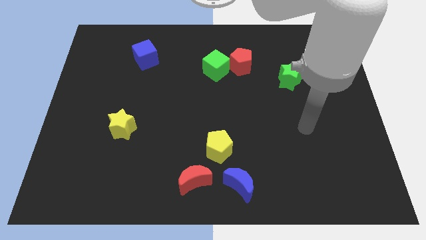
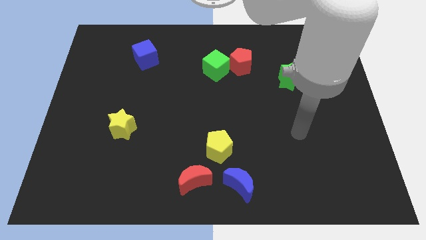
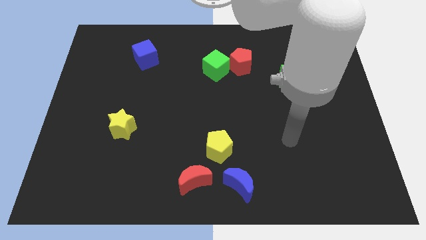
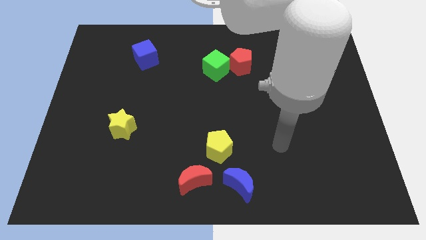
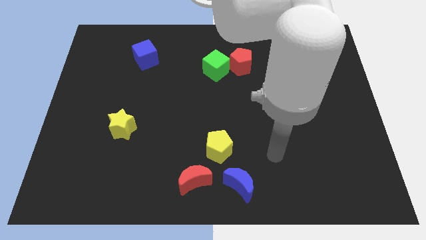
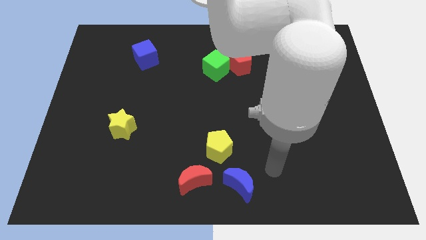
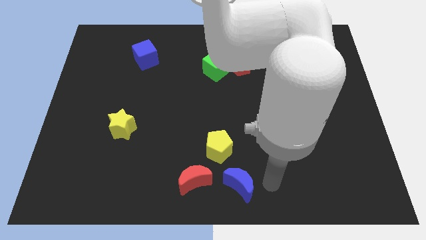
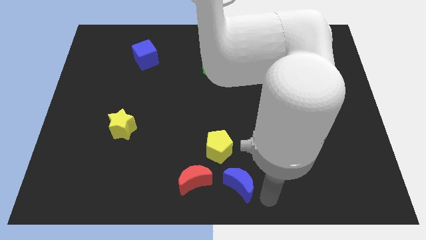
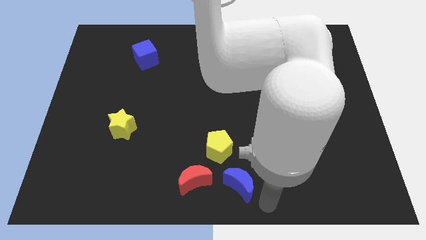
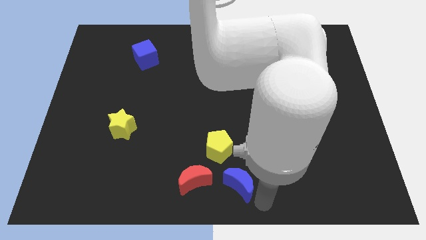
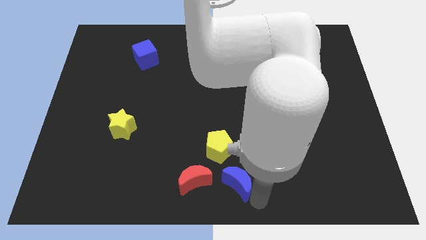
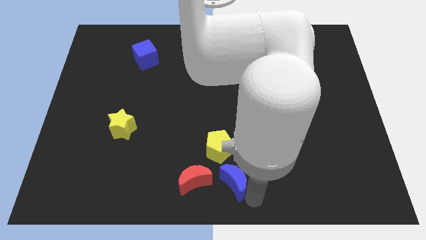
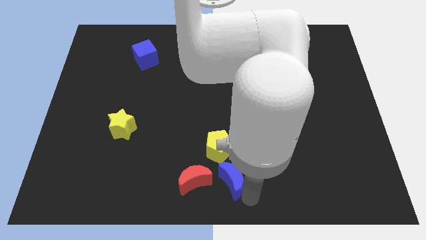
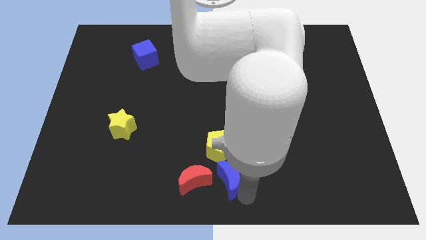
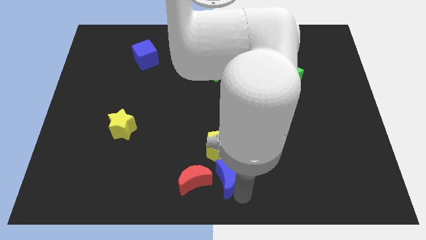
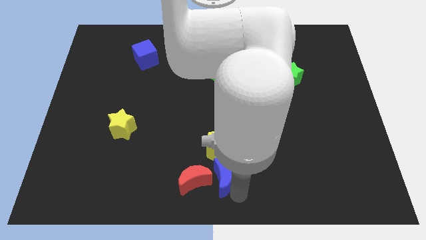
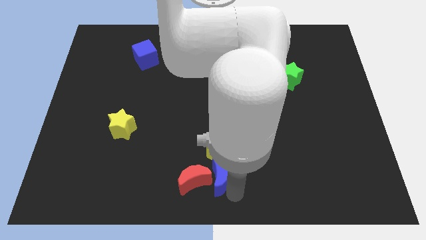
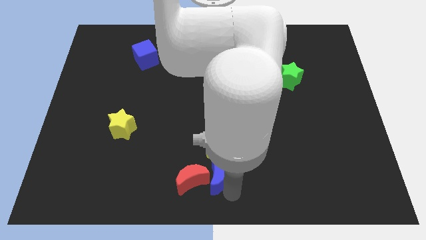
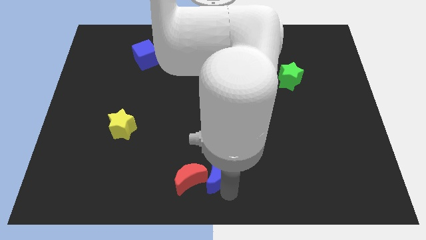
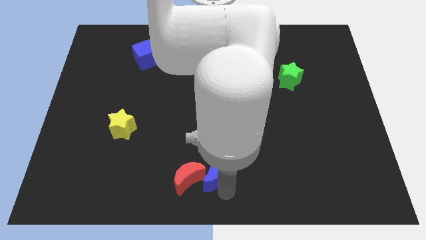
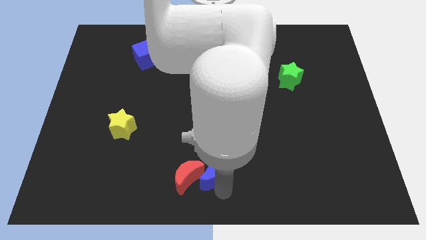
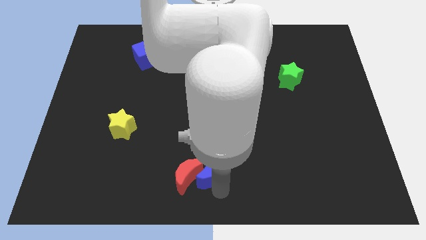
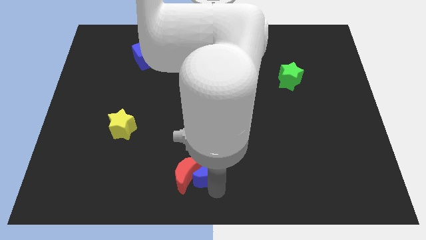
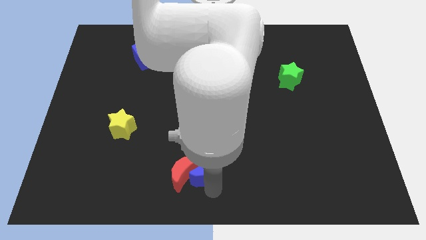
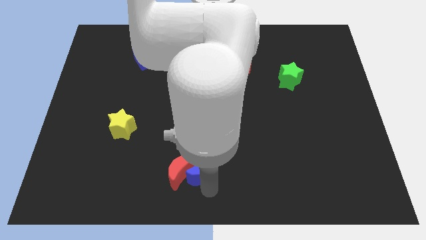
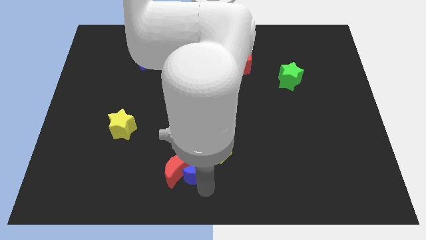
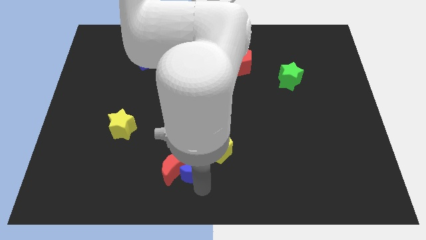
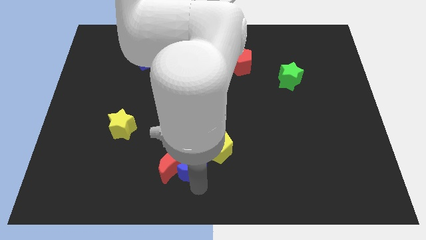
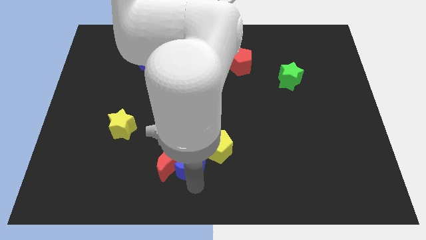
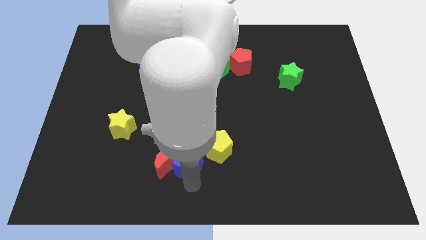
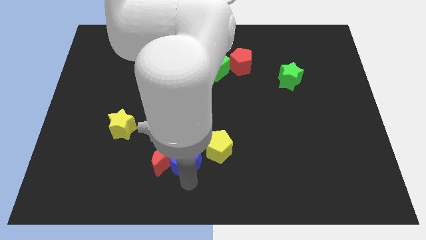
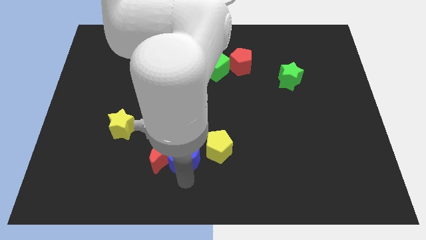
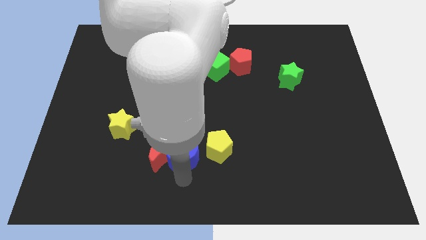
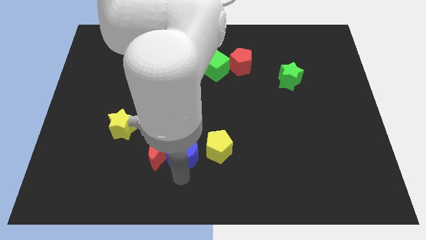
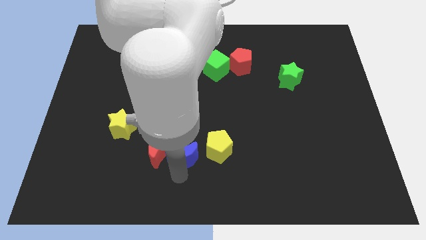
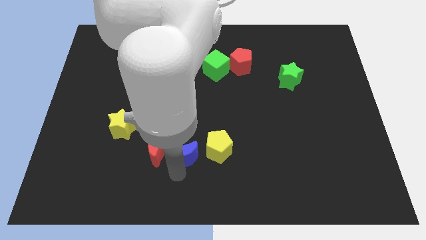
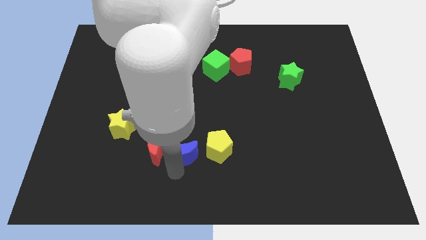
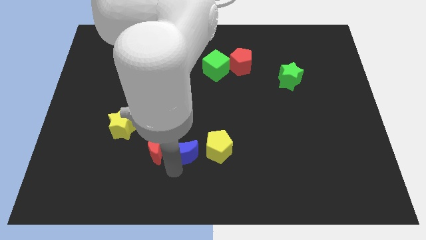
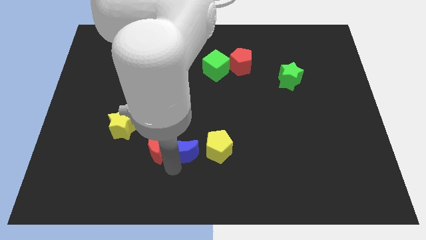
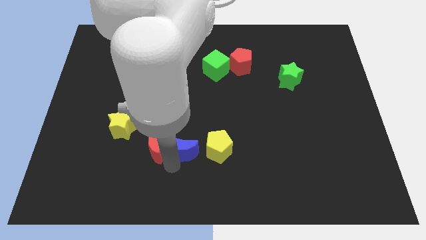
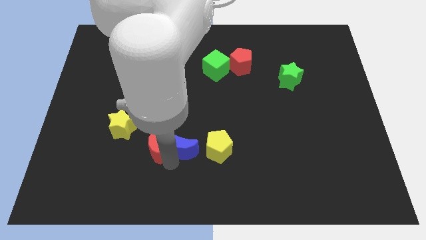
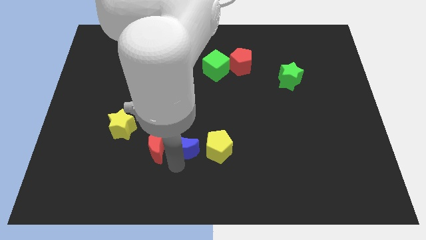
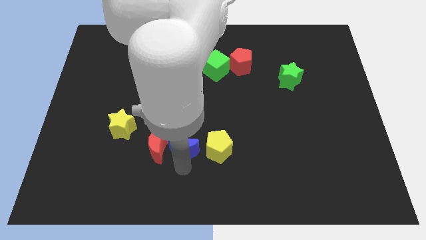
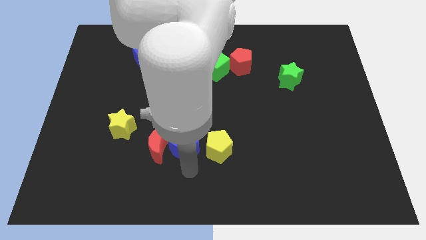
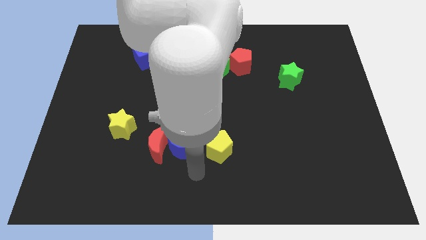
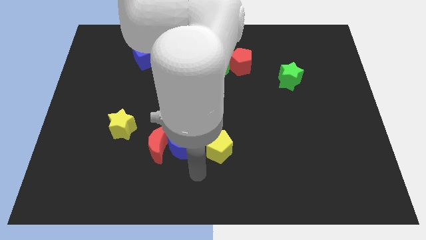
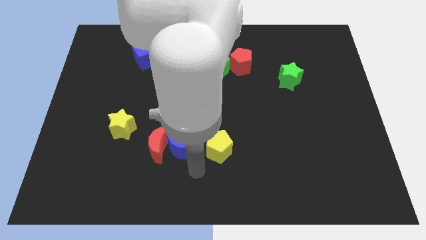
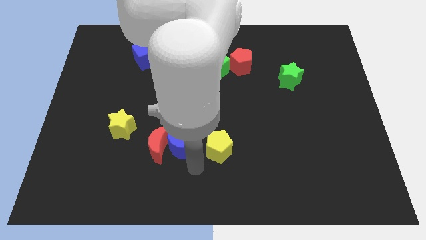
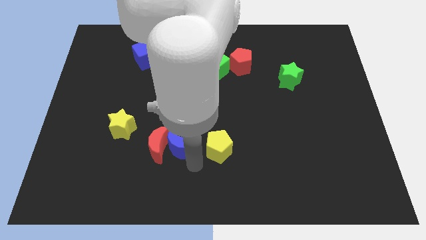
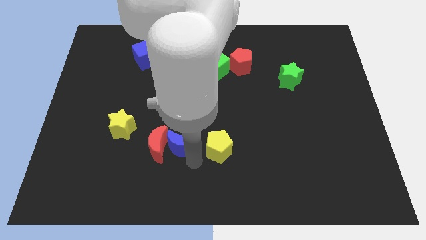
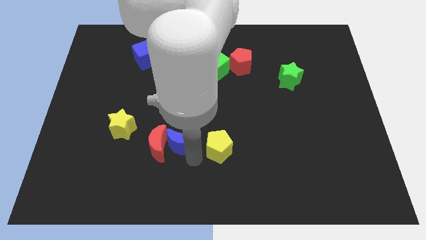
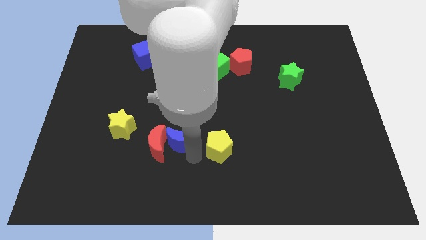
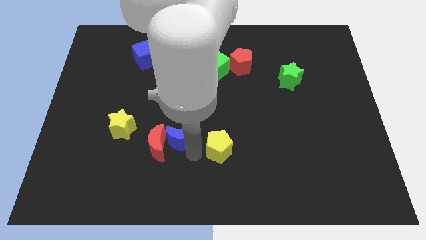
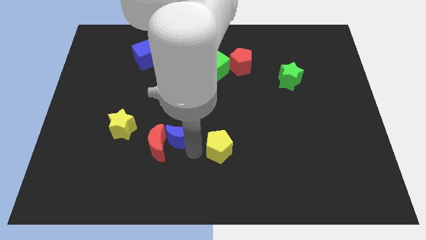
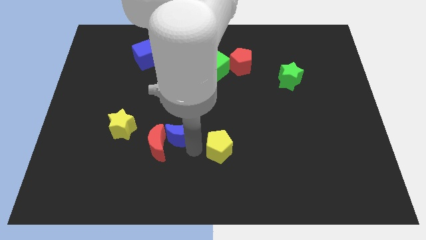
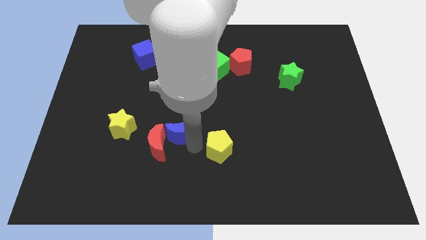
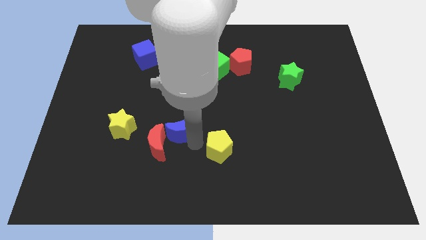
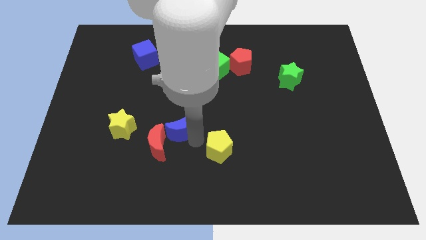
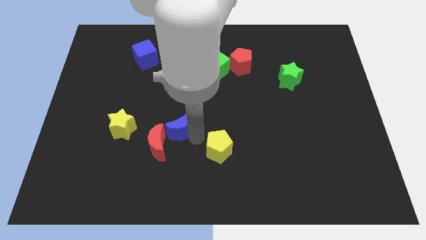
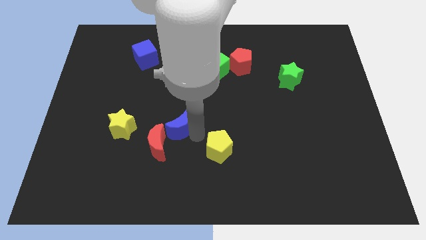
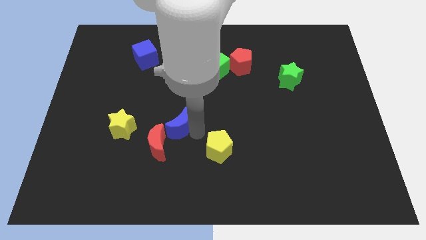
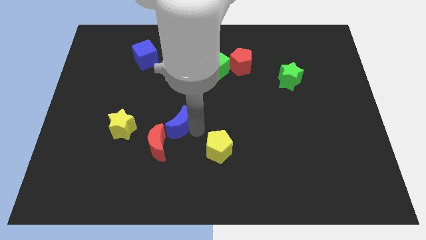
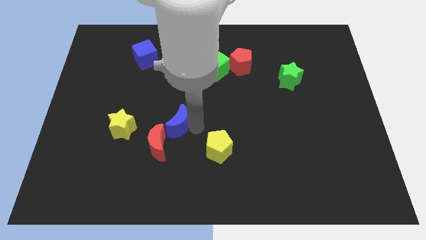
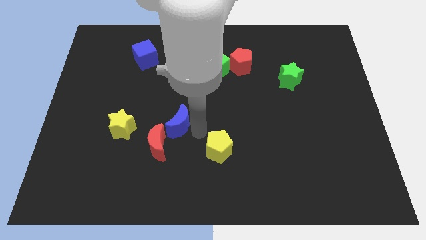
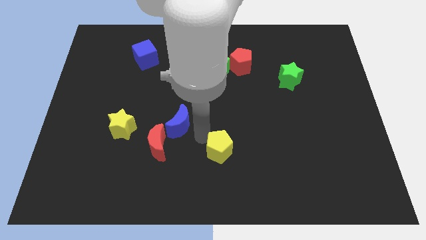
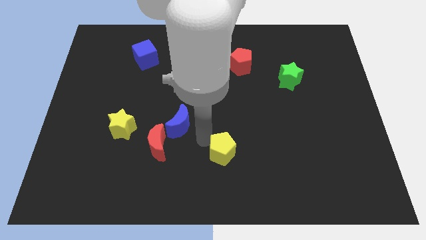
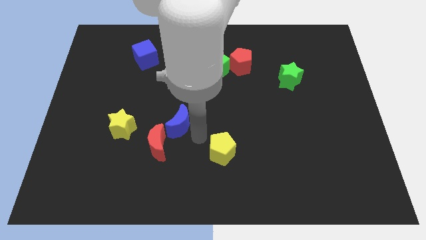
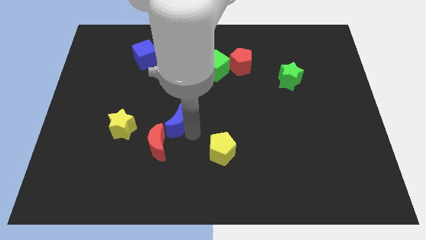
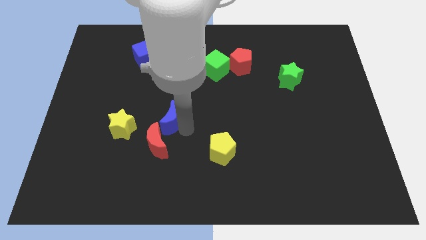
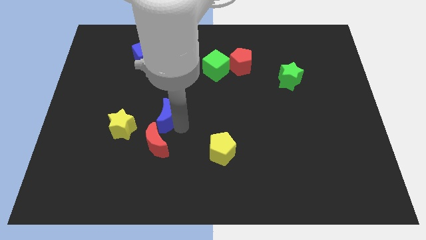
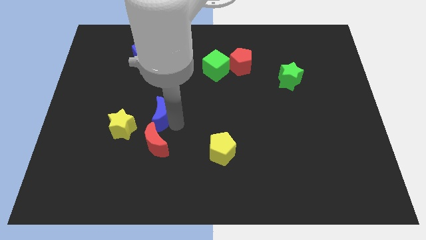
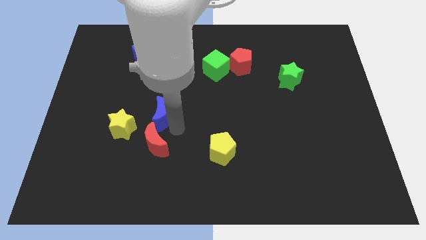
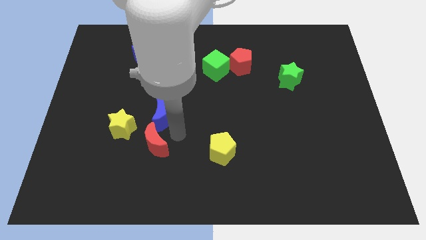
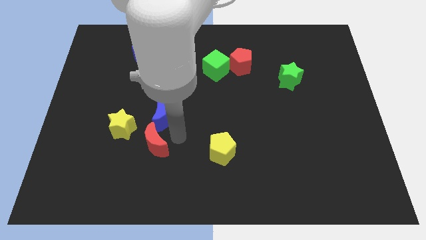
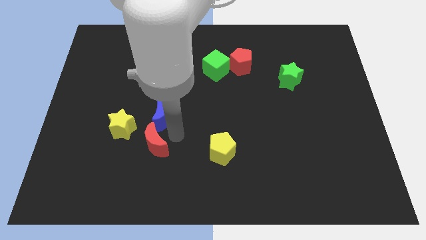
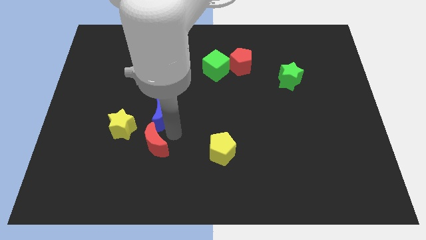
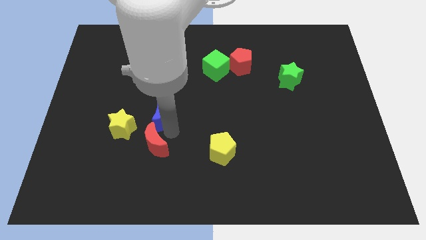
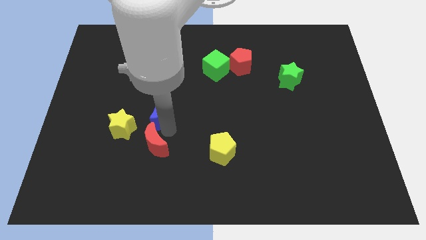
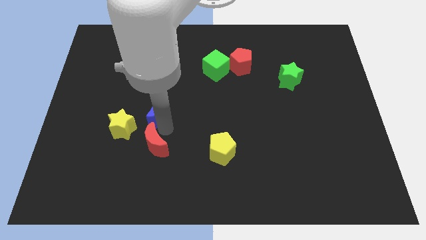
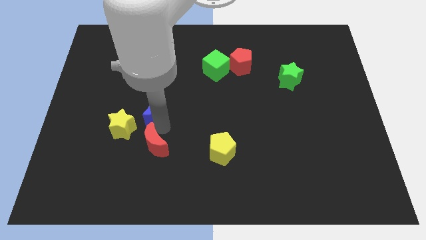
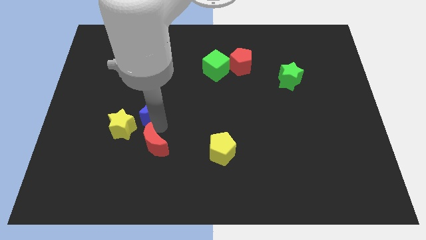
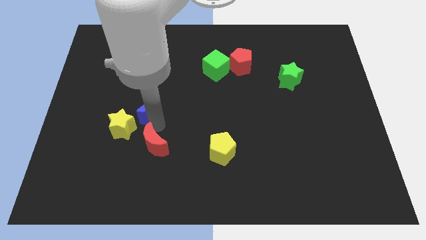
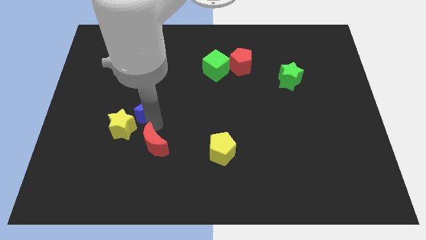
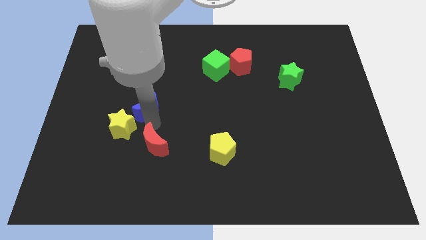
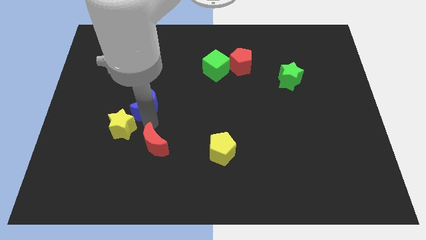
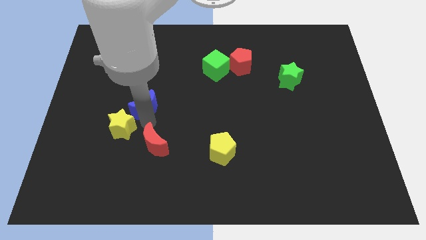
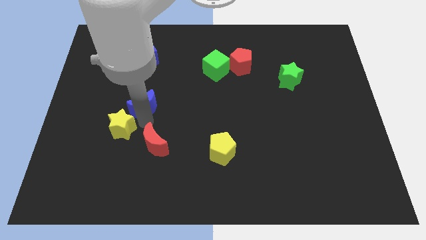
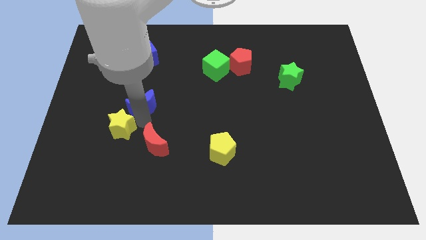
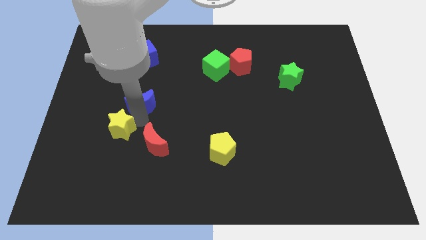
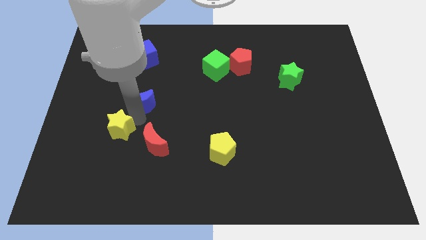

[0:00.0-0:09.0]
move the blue moon below the blue cube
